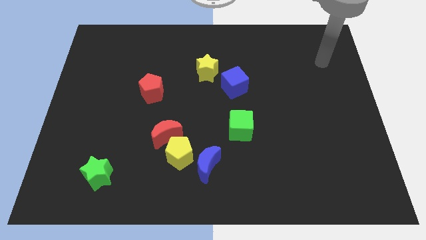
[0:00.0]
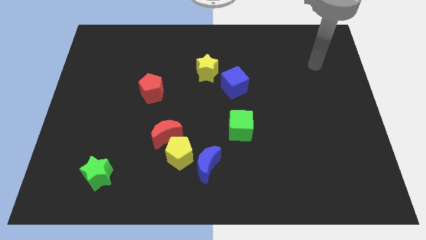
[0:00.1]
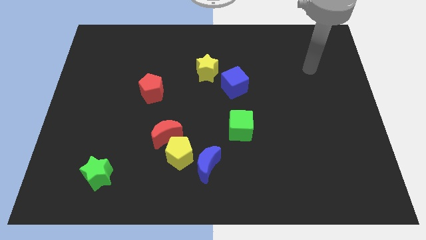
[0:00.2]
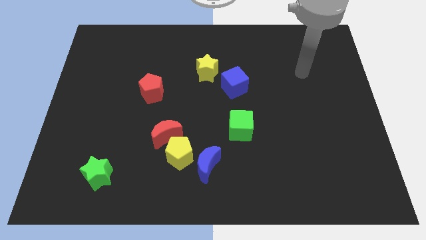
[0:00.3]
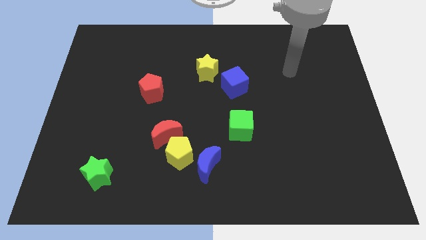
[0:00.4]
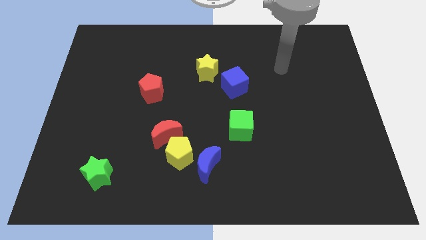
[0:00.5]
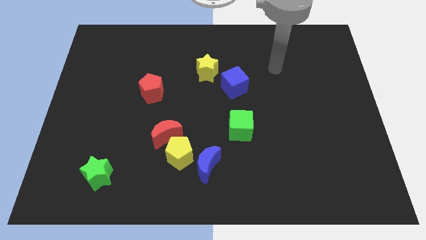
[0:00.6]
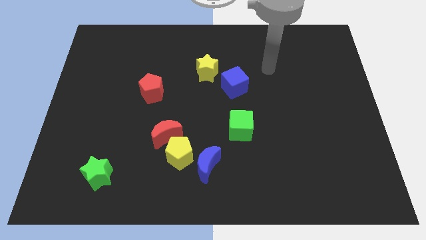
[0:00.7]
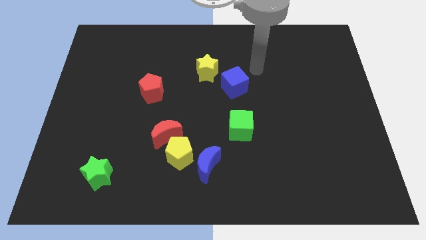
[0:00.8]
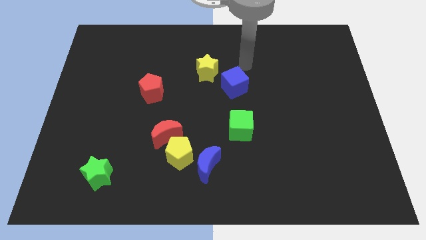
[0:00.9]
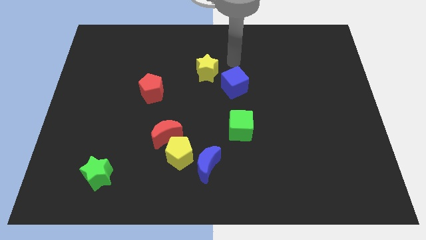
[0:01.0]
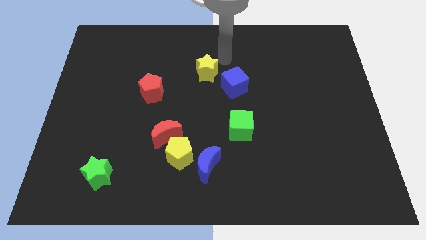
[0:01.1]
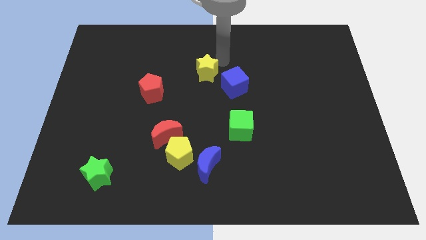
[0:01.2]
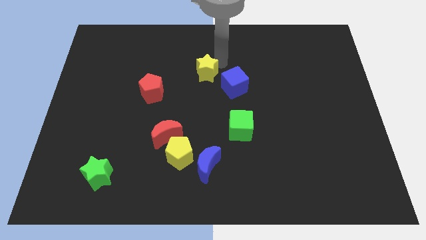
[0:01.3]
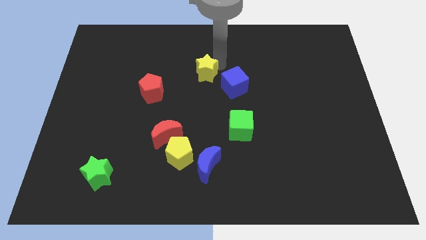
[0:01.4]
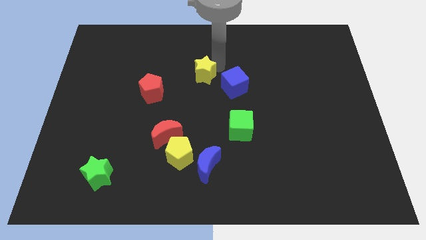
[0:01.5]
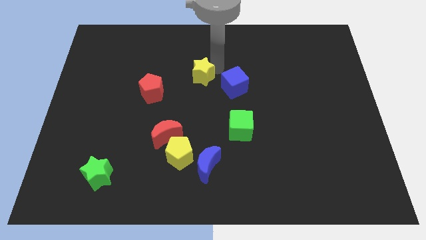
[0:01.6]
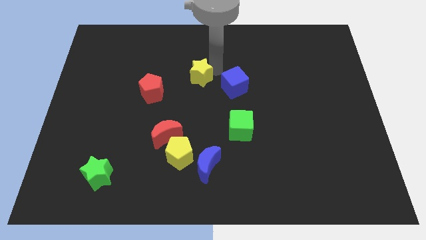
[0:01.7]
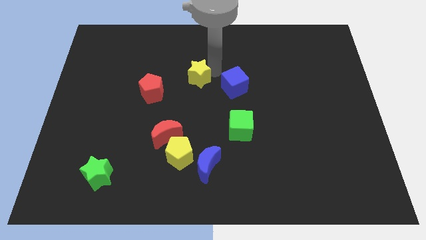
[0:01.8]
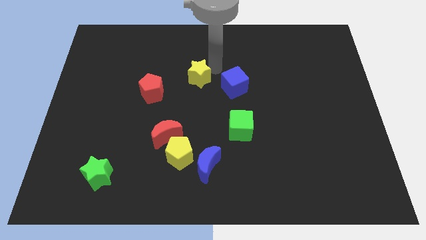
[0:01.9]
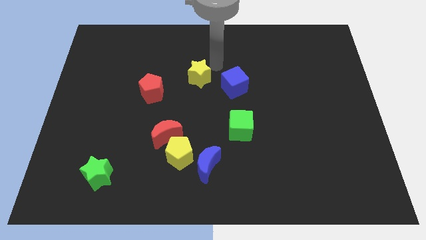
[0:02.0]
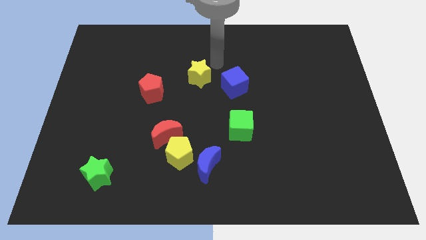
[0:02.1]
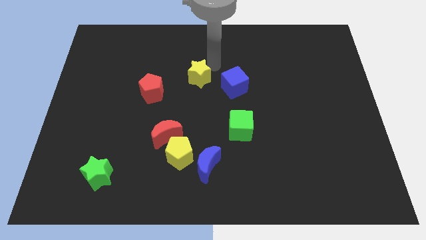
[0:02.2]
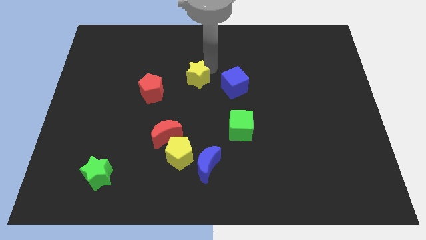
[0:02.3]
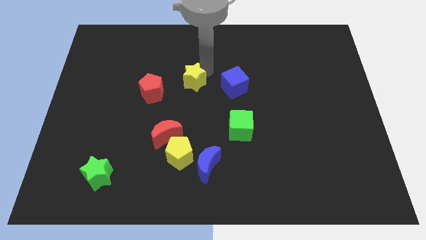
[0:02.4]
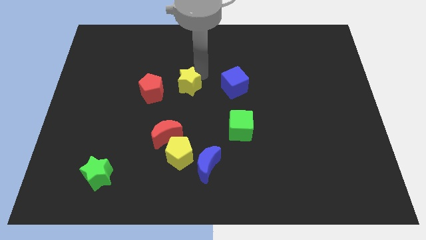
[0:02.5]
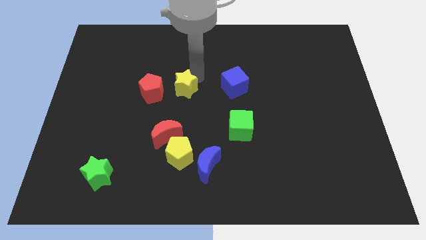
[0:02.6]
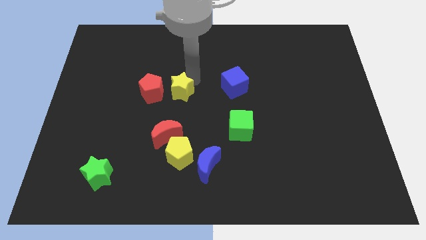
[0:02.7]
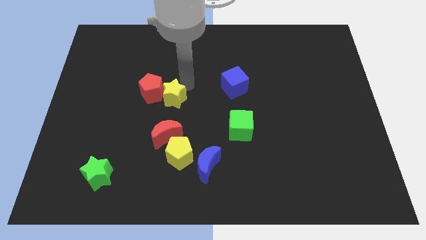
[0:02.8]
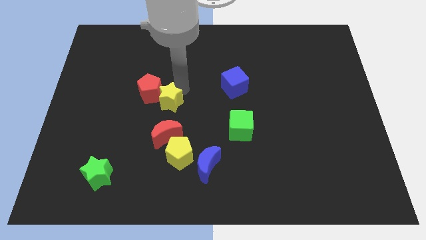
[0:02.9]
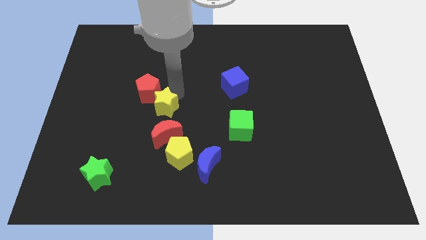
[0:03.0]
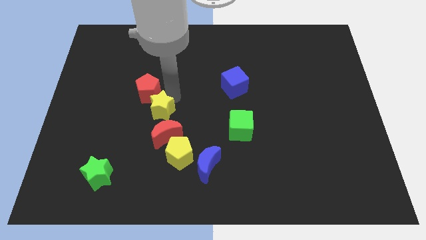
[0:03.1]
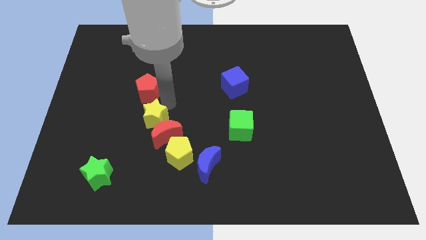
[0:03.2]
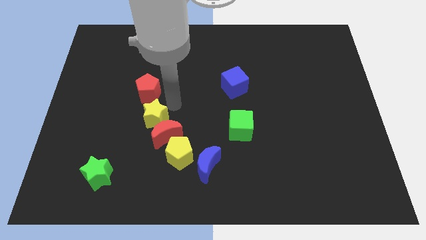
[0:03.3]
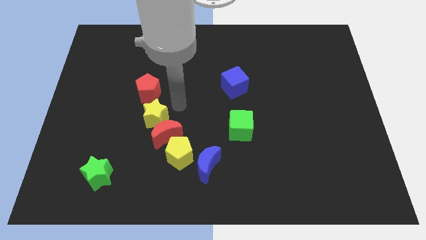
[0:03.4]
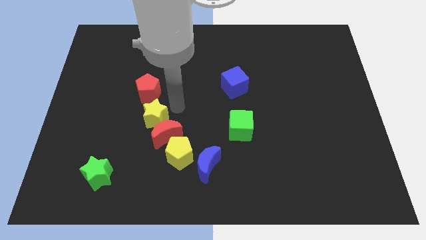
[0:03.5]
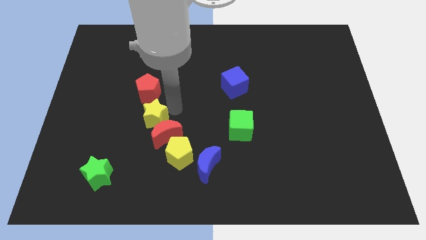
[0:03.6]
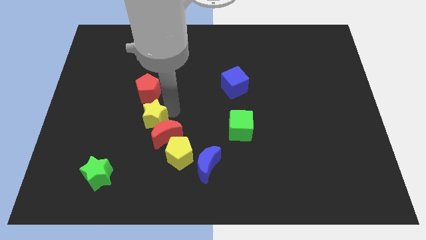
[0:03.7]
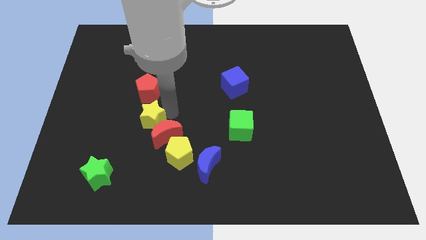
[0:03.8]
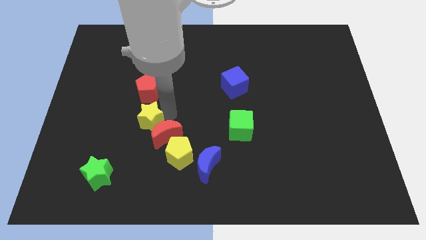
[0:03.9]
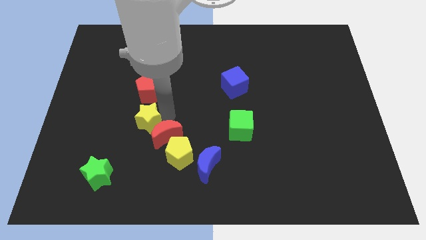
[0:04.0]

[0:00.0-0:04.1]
push the yellow star diagonally downwards and to the left

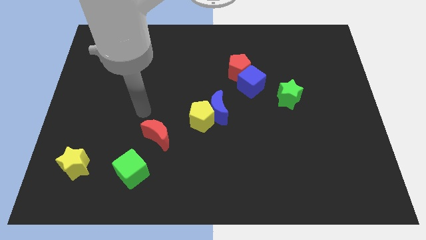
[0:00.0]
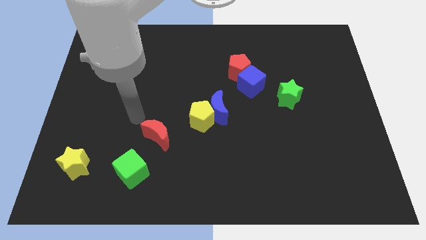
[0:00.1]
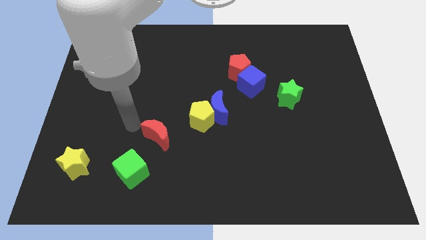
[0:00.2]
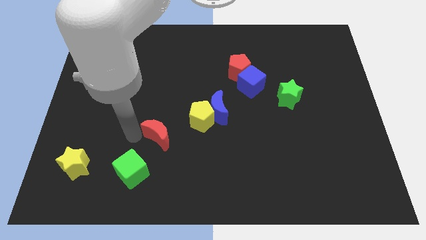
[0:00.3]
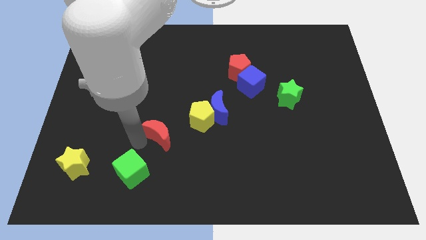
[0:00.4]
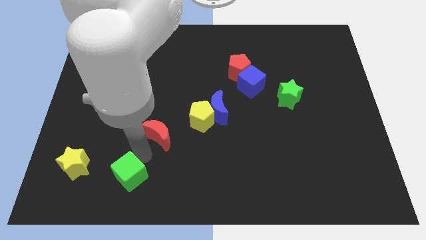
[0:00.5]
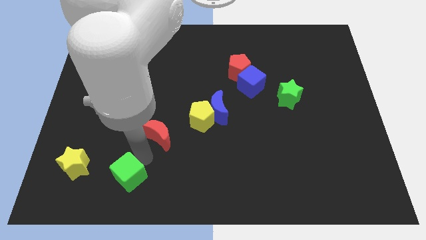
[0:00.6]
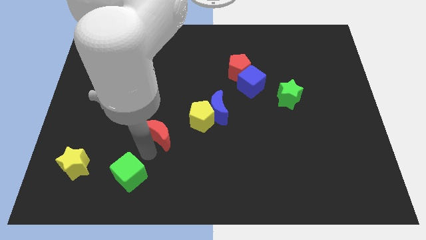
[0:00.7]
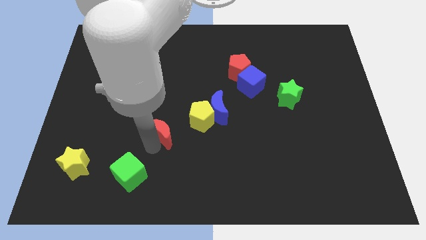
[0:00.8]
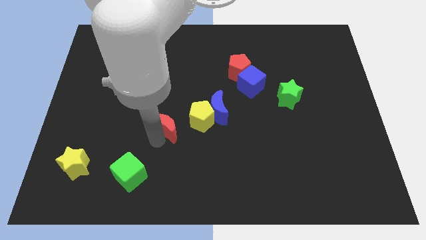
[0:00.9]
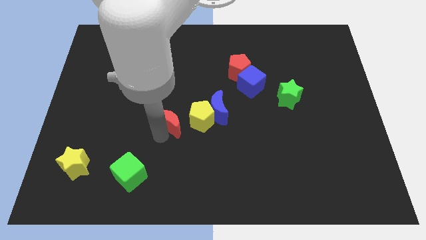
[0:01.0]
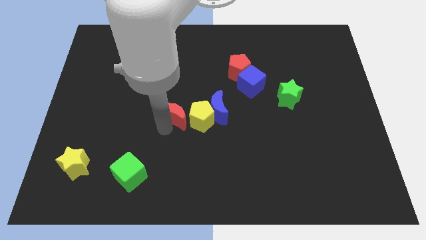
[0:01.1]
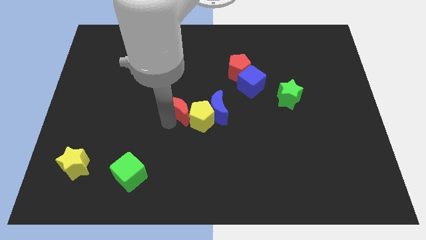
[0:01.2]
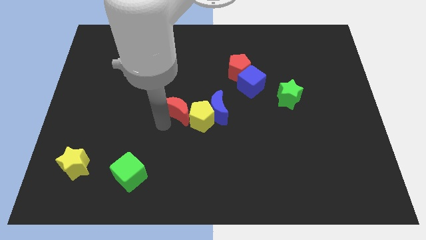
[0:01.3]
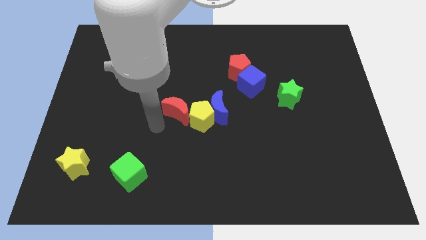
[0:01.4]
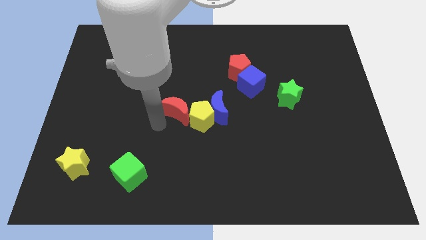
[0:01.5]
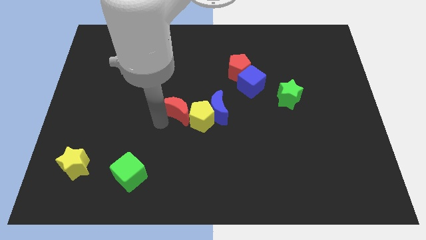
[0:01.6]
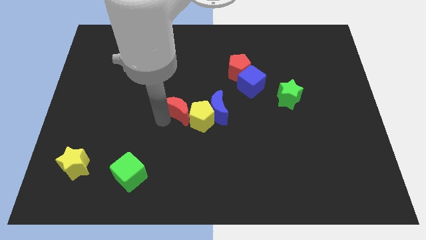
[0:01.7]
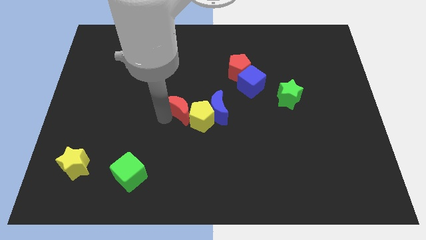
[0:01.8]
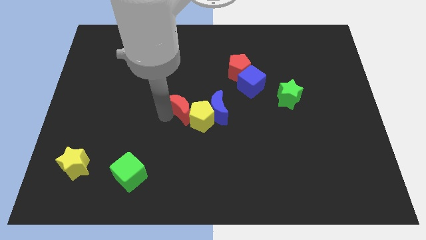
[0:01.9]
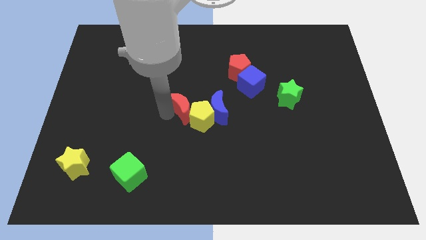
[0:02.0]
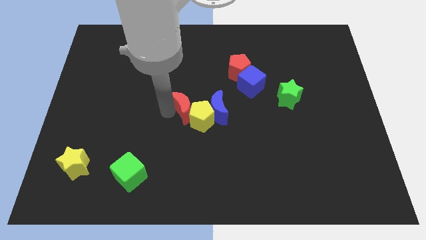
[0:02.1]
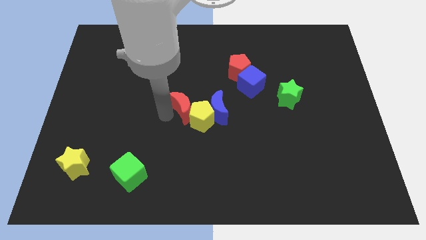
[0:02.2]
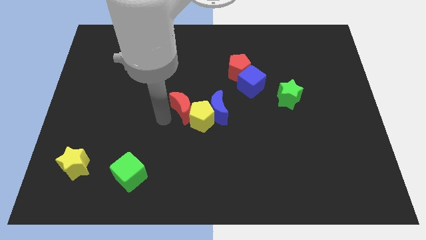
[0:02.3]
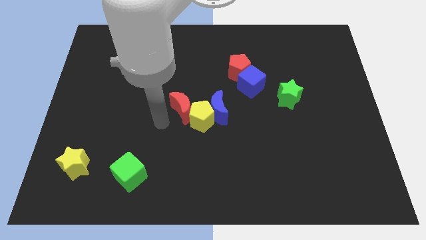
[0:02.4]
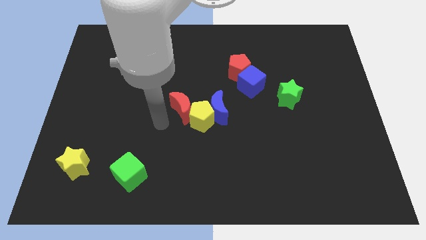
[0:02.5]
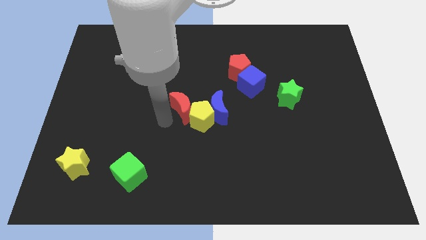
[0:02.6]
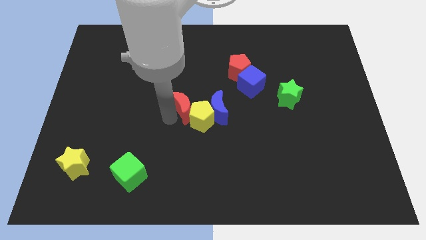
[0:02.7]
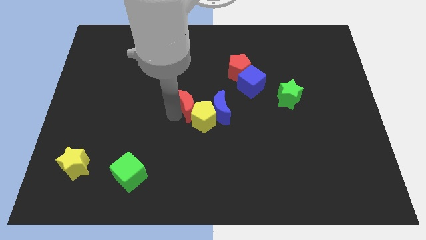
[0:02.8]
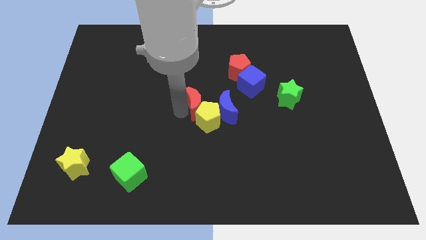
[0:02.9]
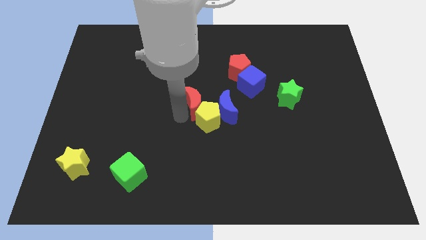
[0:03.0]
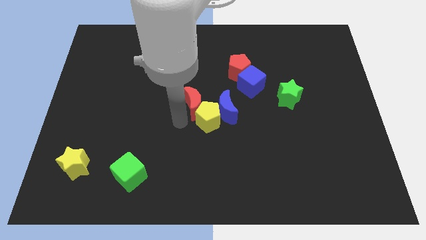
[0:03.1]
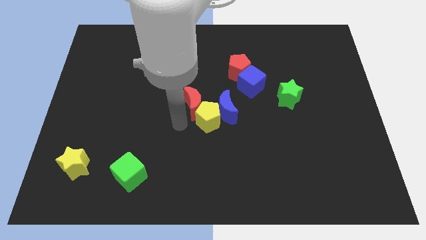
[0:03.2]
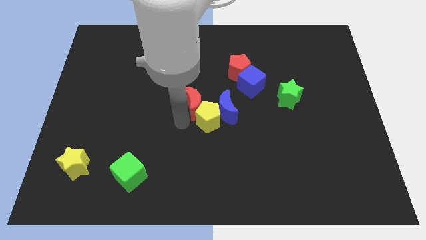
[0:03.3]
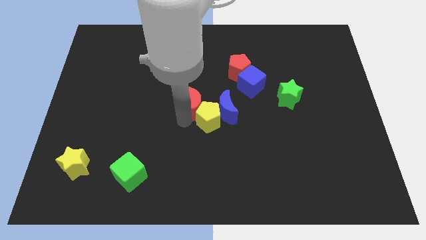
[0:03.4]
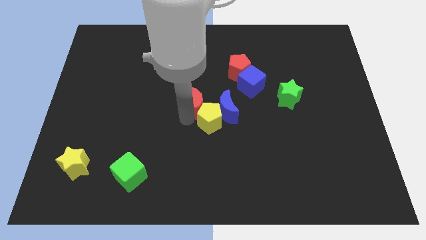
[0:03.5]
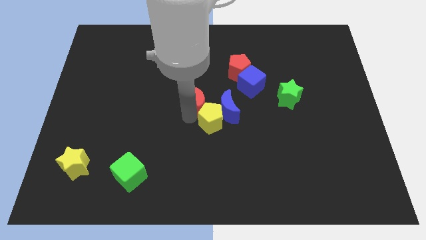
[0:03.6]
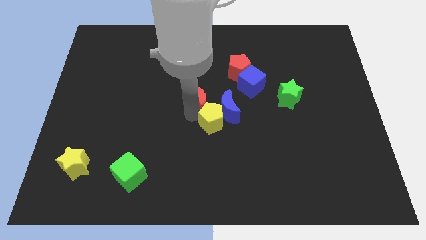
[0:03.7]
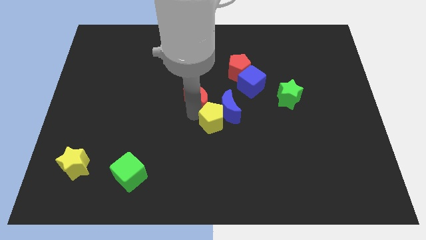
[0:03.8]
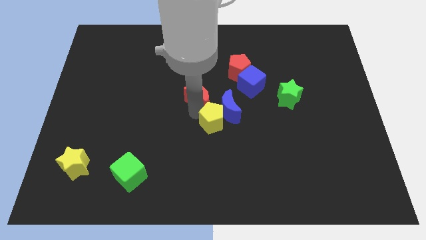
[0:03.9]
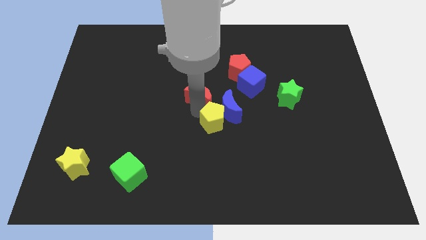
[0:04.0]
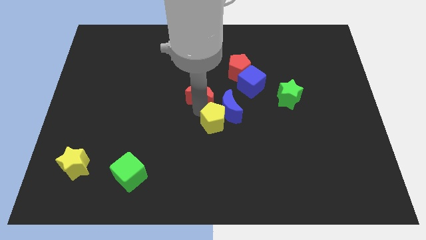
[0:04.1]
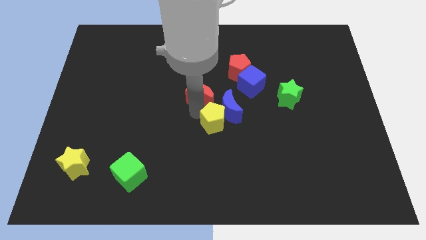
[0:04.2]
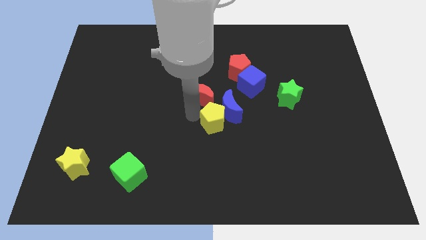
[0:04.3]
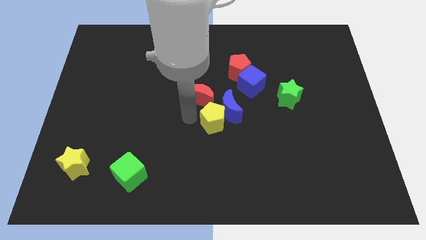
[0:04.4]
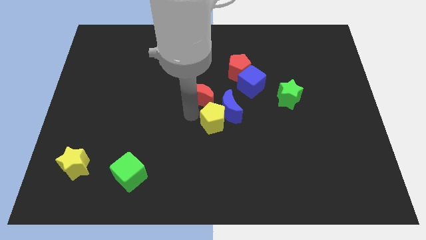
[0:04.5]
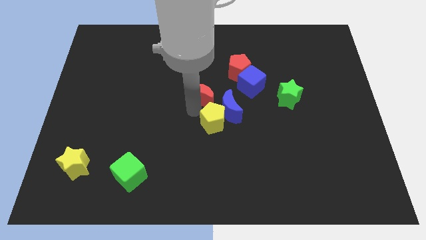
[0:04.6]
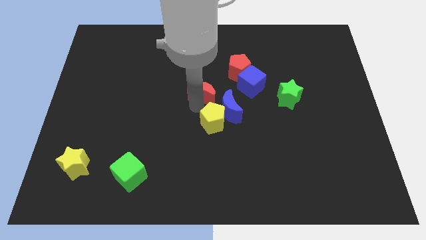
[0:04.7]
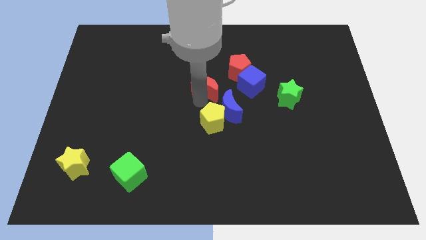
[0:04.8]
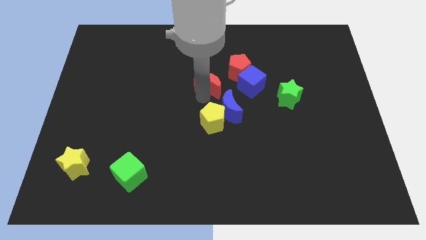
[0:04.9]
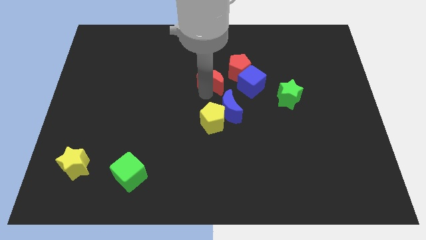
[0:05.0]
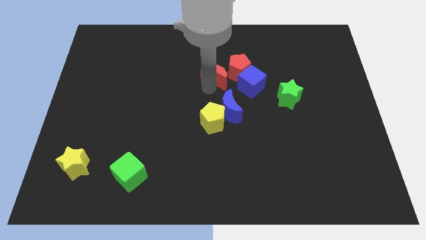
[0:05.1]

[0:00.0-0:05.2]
move the red moon upwards and right diagonally
